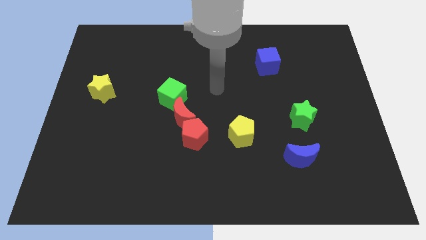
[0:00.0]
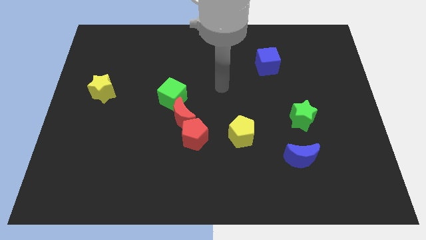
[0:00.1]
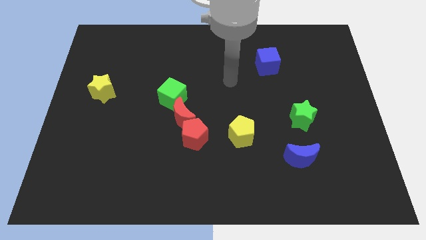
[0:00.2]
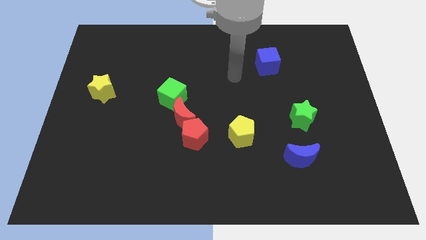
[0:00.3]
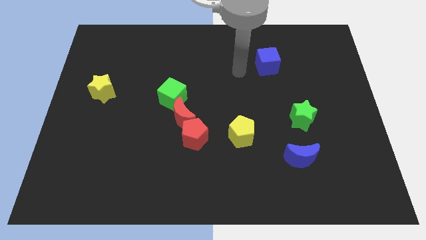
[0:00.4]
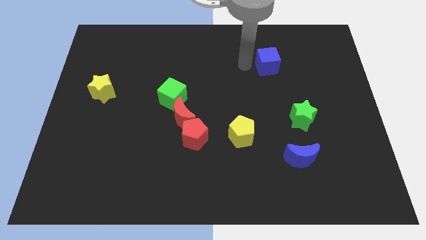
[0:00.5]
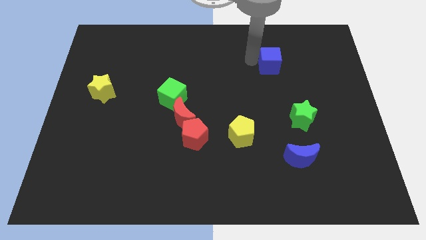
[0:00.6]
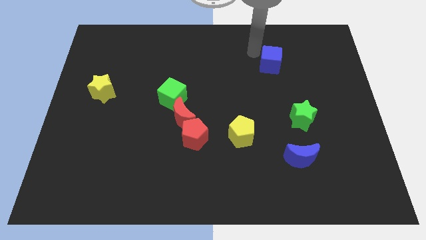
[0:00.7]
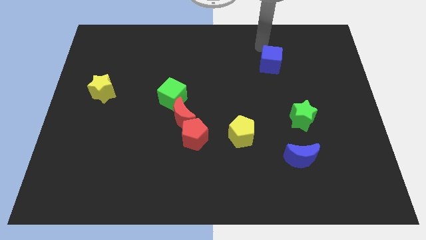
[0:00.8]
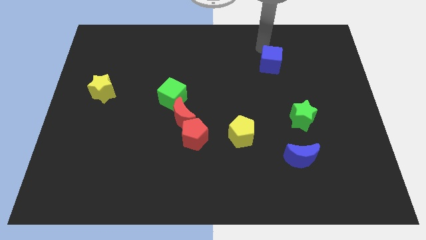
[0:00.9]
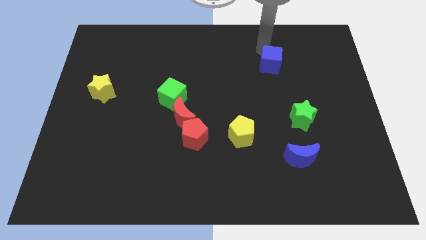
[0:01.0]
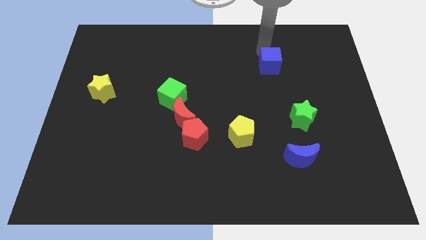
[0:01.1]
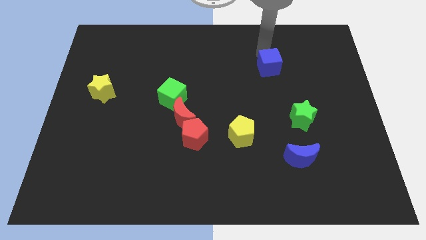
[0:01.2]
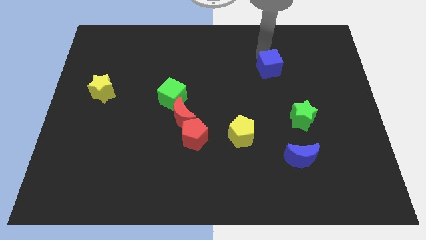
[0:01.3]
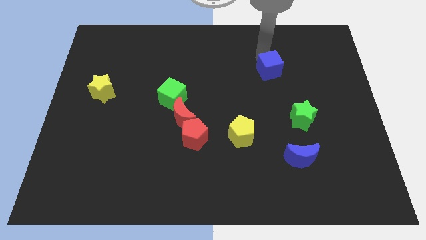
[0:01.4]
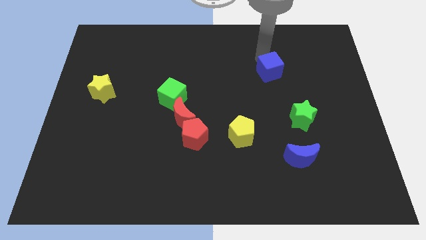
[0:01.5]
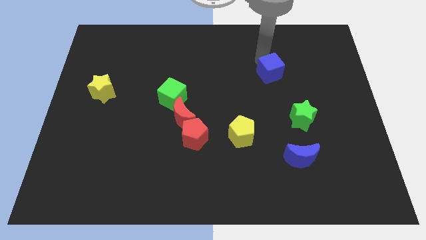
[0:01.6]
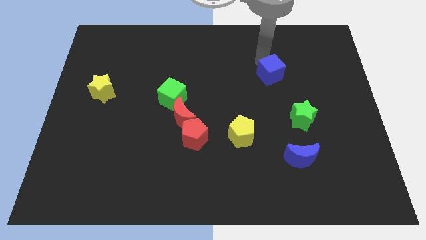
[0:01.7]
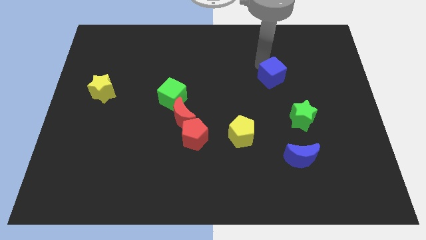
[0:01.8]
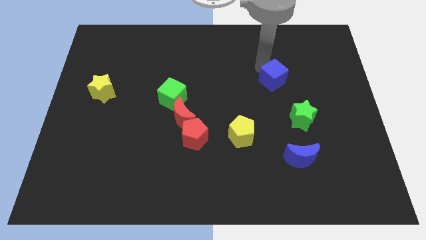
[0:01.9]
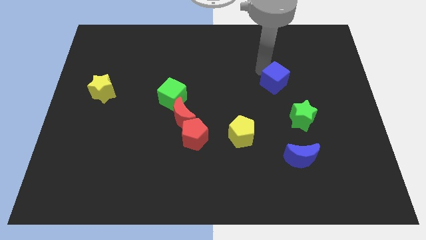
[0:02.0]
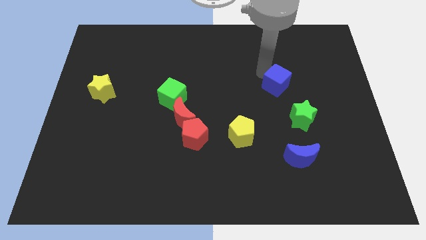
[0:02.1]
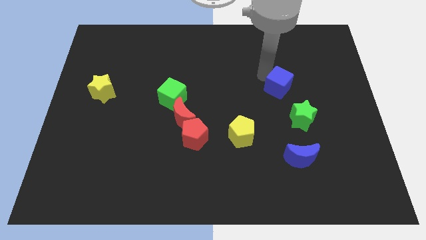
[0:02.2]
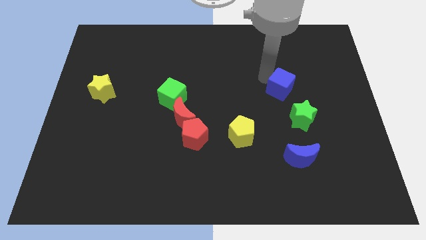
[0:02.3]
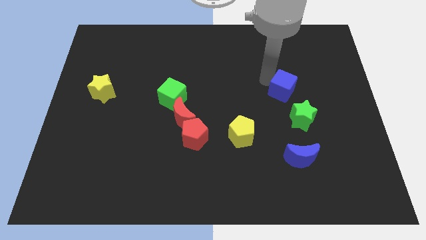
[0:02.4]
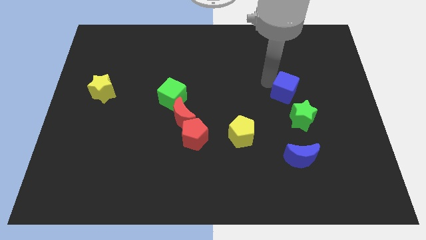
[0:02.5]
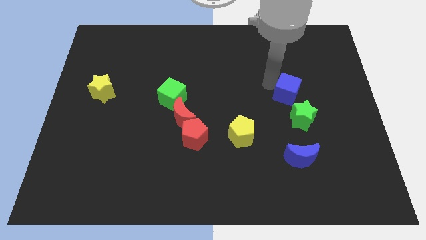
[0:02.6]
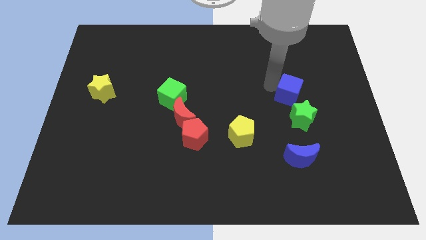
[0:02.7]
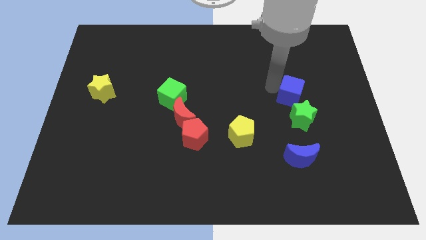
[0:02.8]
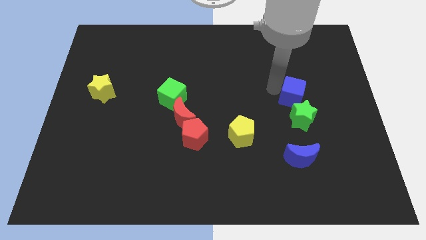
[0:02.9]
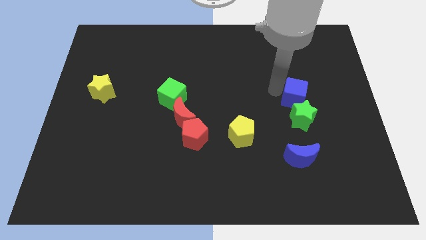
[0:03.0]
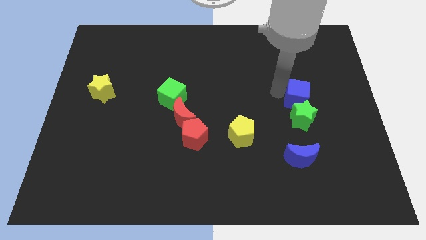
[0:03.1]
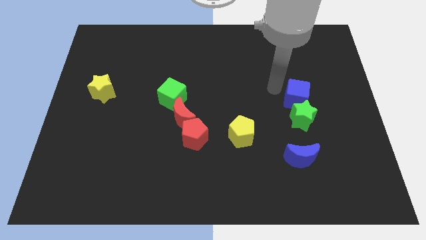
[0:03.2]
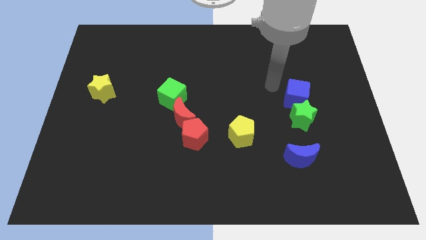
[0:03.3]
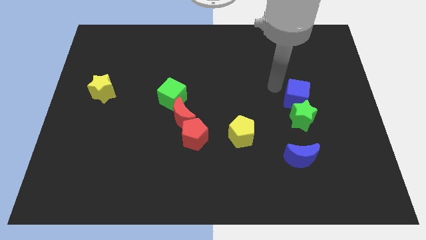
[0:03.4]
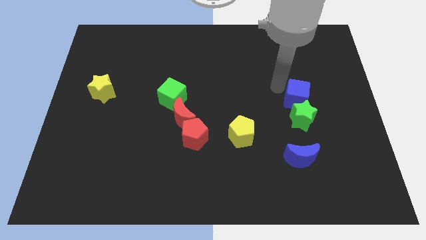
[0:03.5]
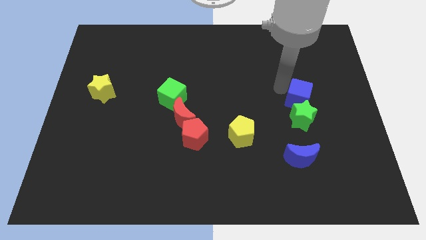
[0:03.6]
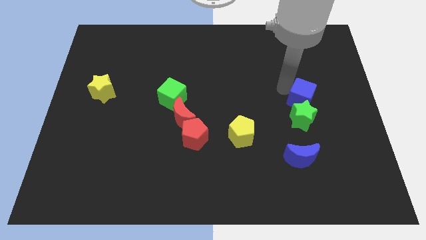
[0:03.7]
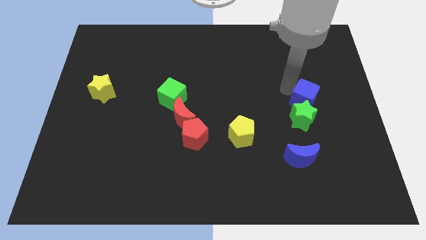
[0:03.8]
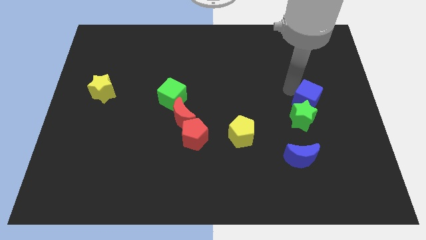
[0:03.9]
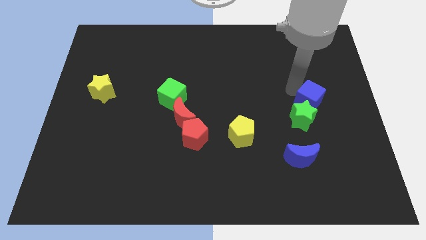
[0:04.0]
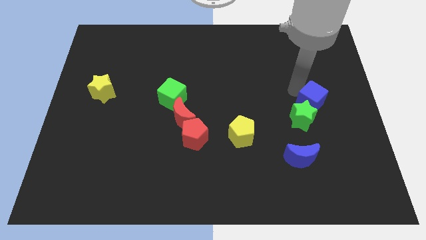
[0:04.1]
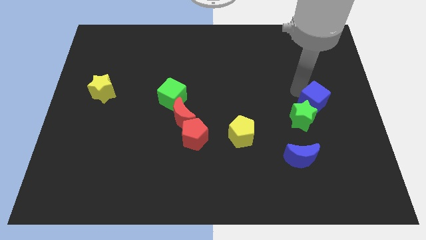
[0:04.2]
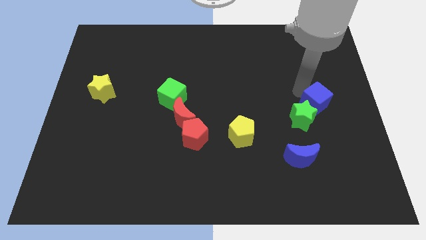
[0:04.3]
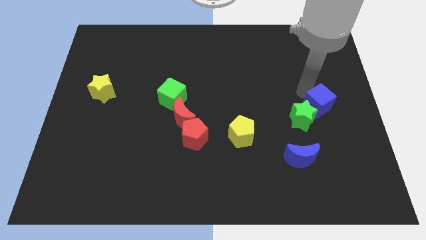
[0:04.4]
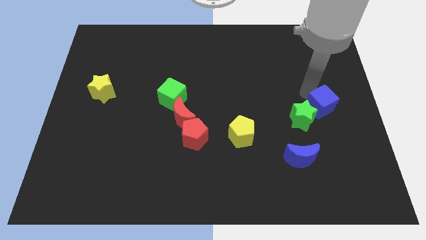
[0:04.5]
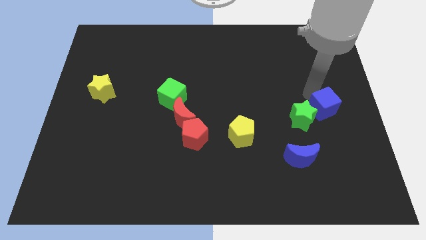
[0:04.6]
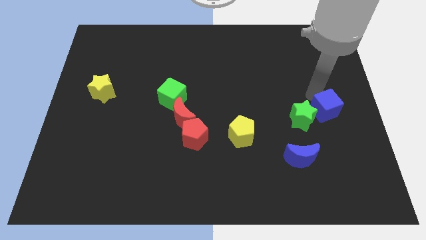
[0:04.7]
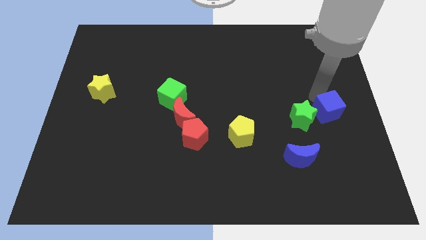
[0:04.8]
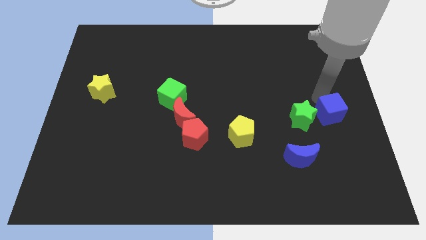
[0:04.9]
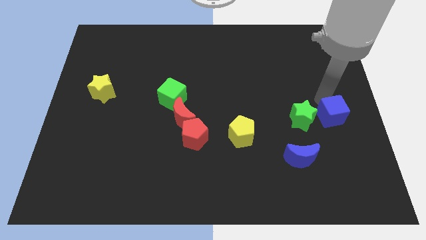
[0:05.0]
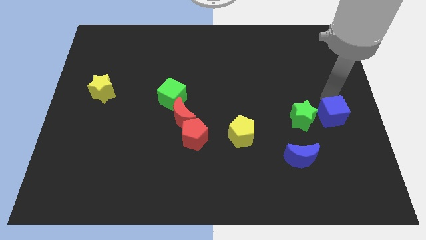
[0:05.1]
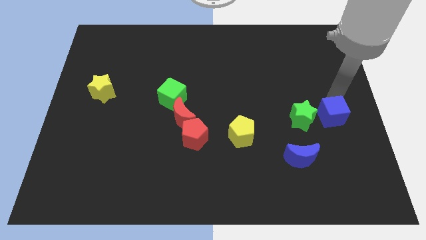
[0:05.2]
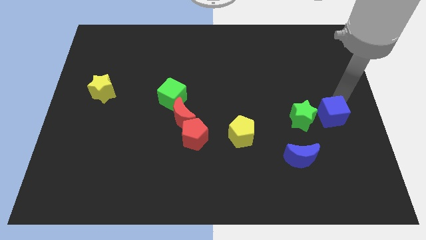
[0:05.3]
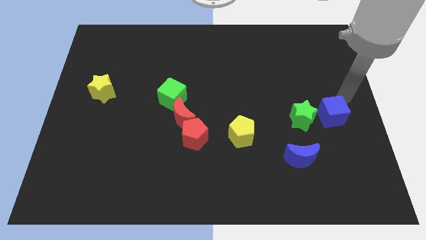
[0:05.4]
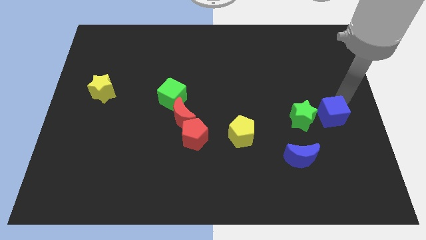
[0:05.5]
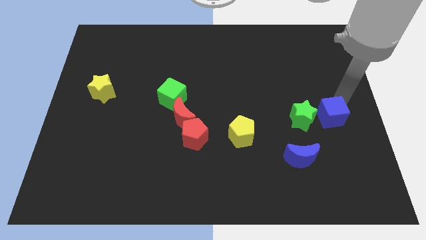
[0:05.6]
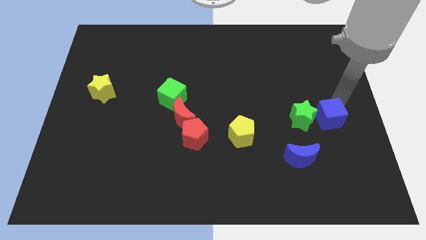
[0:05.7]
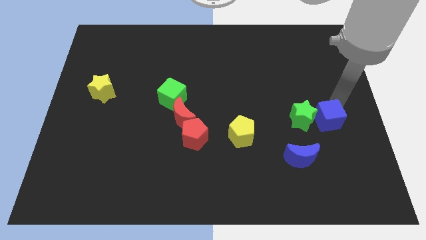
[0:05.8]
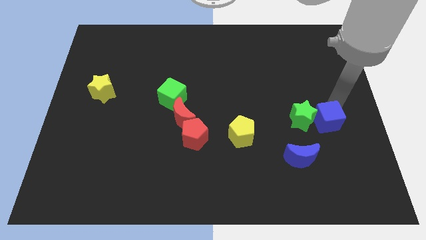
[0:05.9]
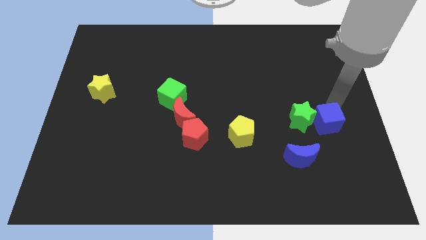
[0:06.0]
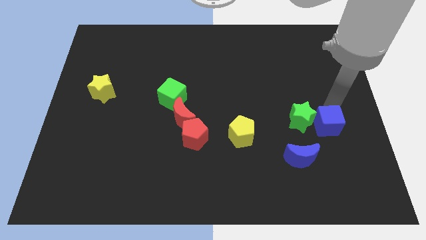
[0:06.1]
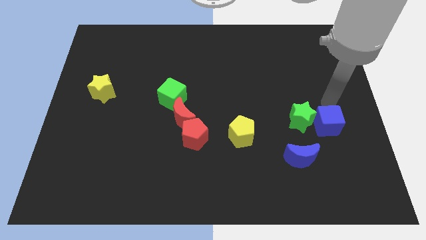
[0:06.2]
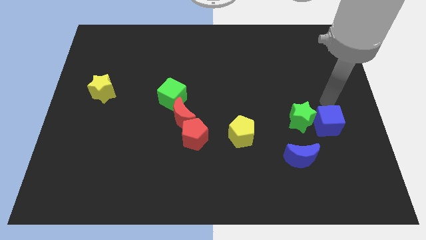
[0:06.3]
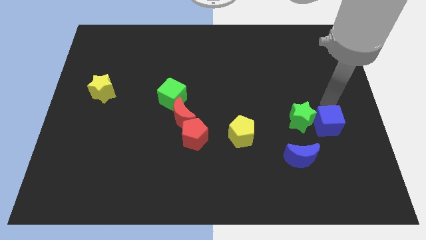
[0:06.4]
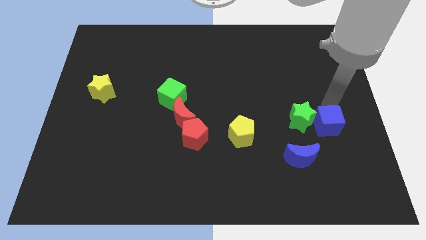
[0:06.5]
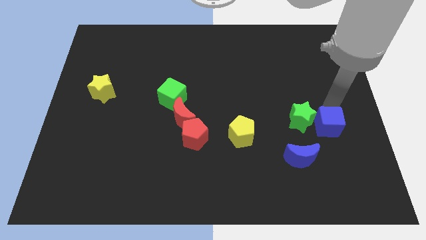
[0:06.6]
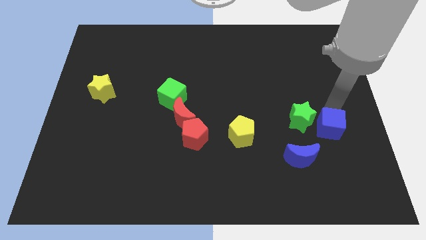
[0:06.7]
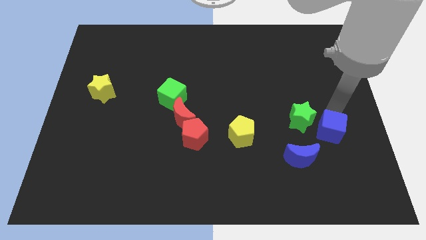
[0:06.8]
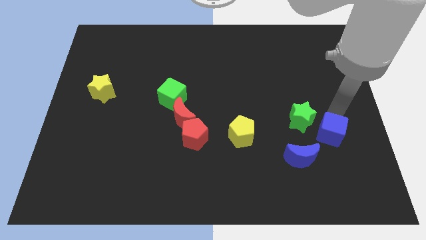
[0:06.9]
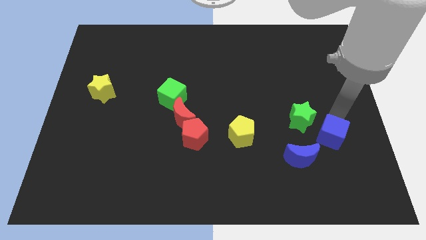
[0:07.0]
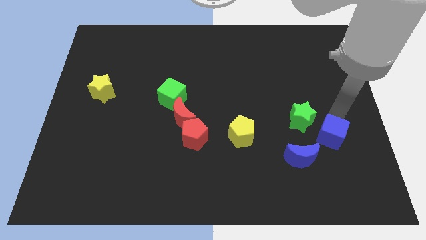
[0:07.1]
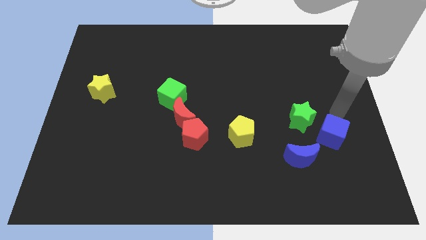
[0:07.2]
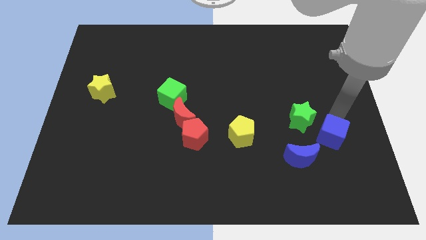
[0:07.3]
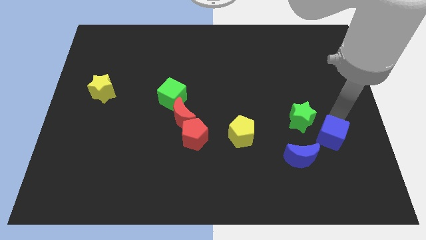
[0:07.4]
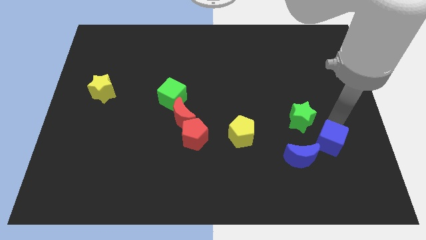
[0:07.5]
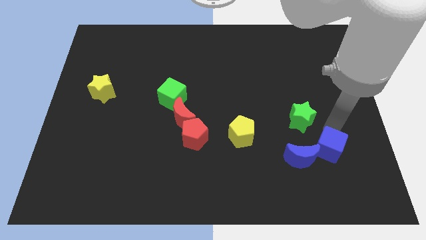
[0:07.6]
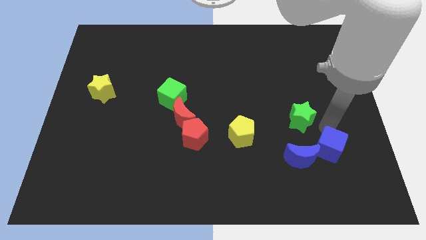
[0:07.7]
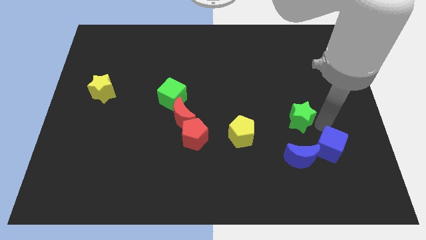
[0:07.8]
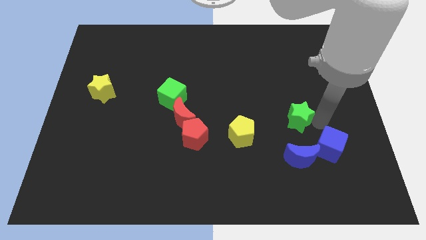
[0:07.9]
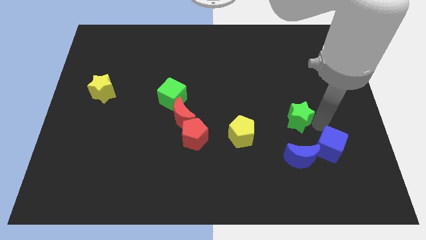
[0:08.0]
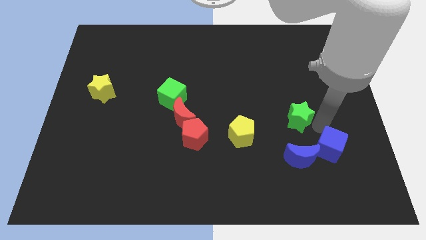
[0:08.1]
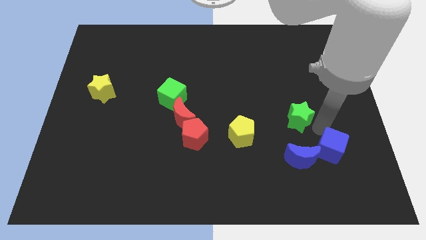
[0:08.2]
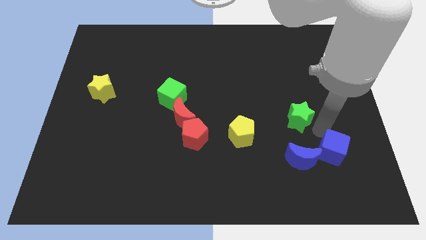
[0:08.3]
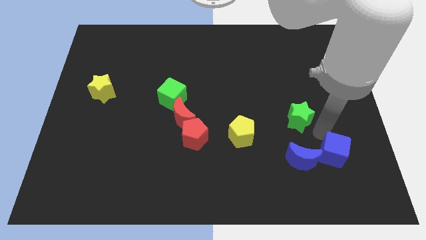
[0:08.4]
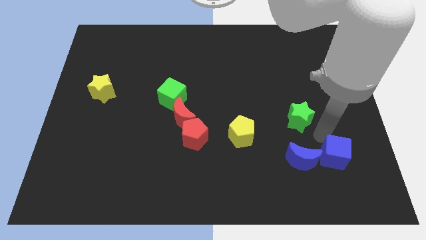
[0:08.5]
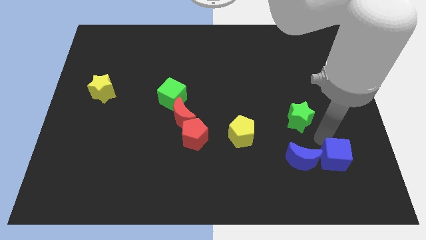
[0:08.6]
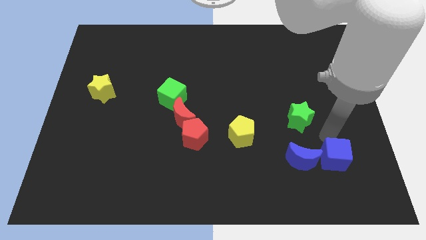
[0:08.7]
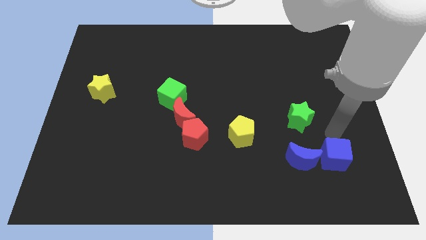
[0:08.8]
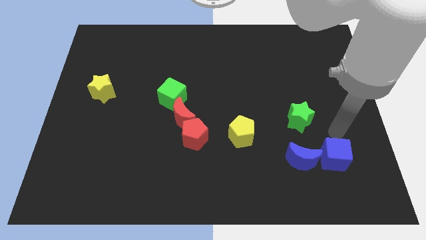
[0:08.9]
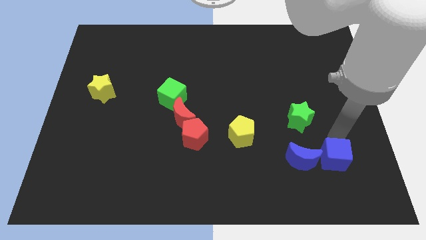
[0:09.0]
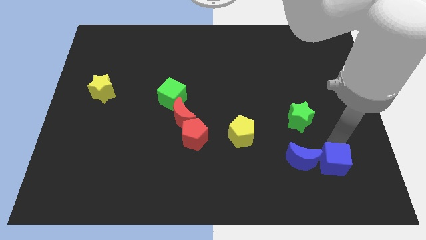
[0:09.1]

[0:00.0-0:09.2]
push the blue cube to the bottom right side of the blue moon
